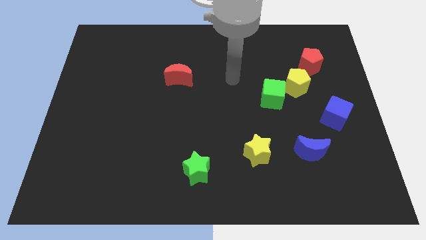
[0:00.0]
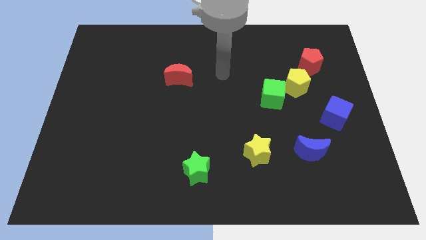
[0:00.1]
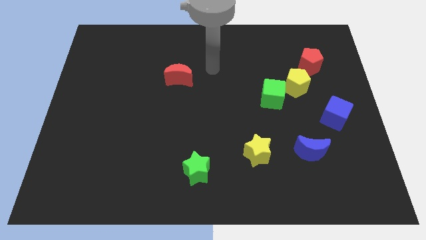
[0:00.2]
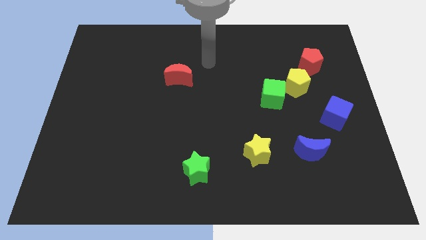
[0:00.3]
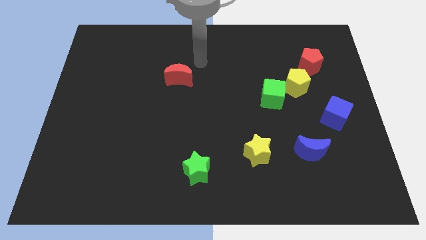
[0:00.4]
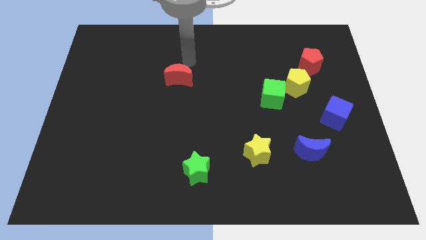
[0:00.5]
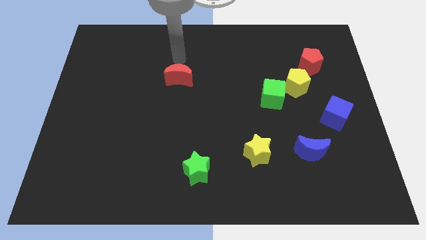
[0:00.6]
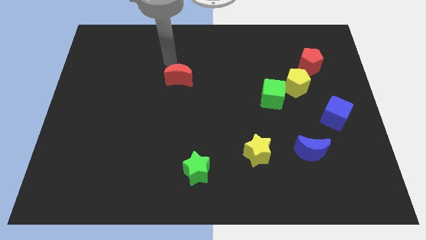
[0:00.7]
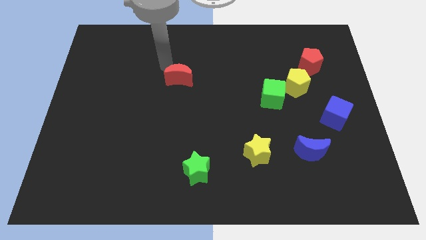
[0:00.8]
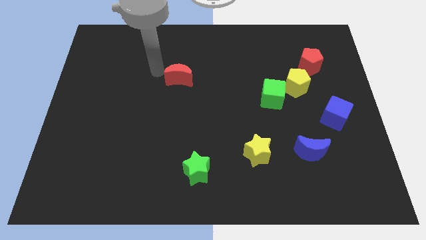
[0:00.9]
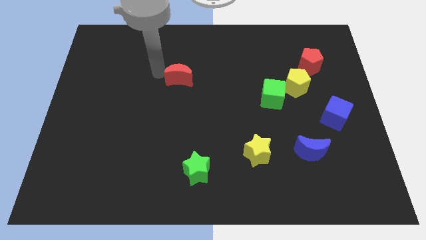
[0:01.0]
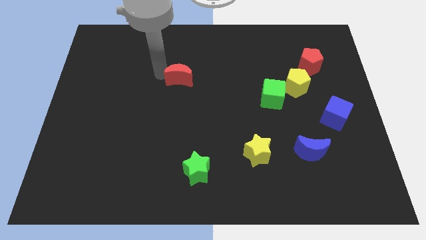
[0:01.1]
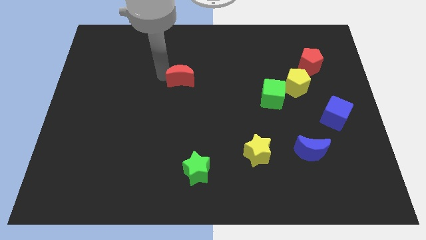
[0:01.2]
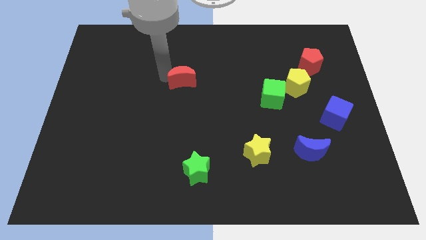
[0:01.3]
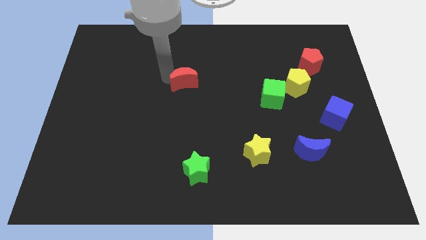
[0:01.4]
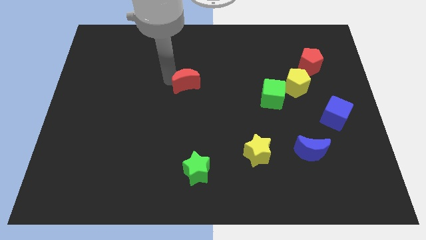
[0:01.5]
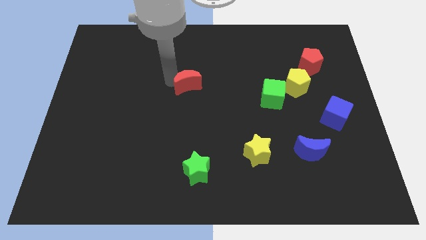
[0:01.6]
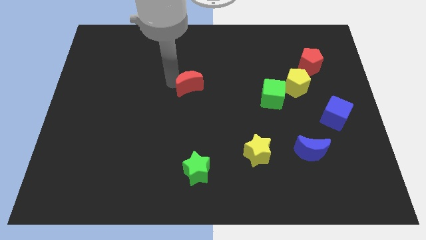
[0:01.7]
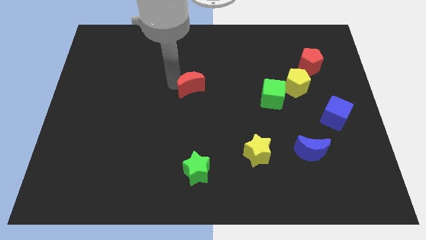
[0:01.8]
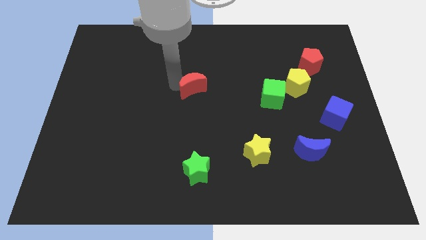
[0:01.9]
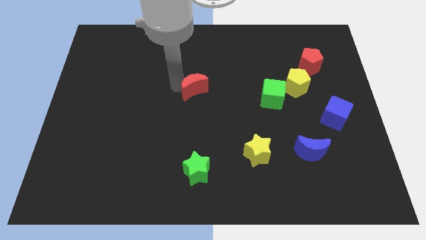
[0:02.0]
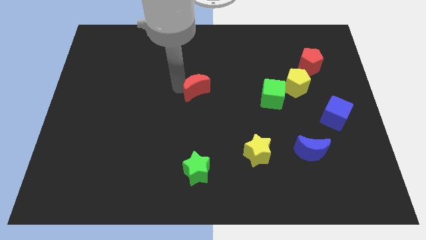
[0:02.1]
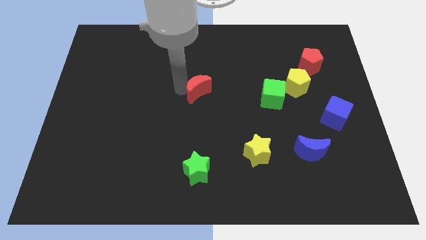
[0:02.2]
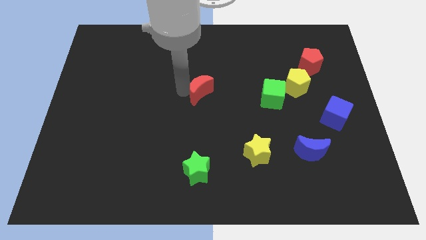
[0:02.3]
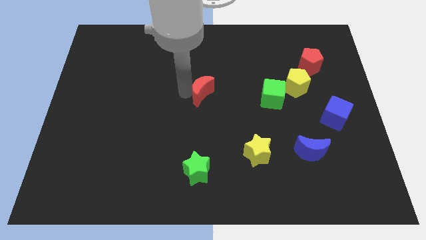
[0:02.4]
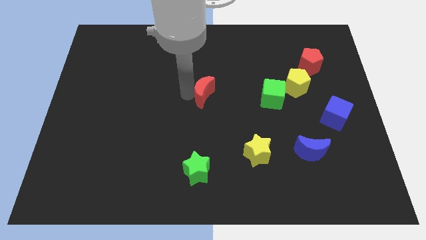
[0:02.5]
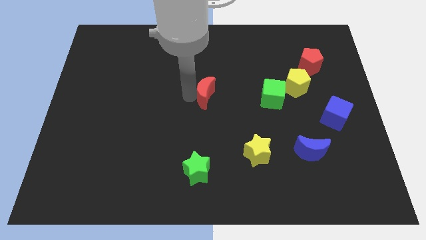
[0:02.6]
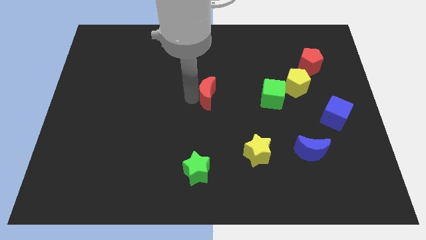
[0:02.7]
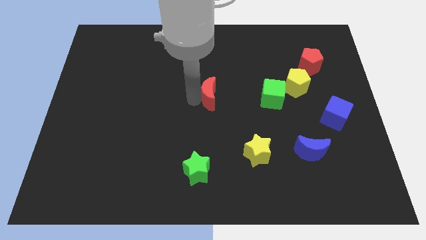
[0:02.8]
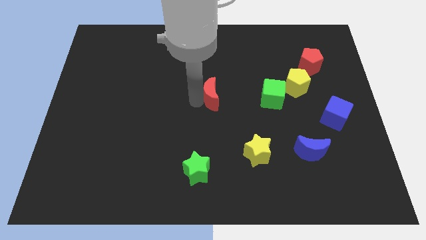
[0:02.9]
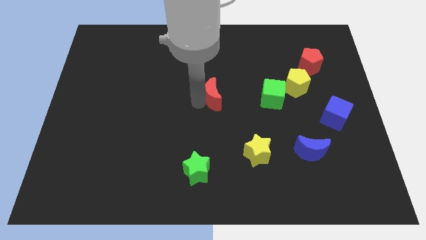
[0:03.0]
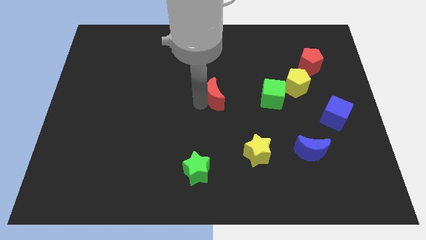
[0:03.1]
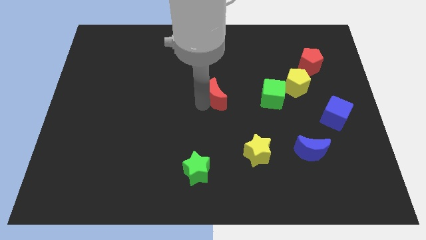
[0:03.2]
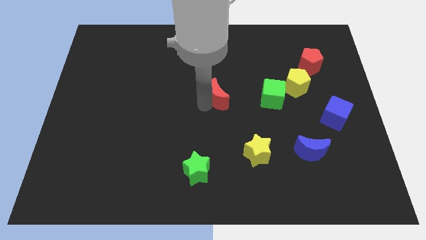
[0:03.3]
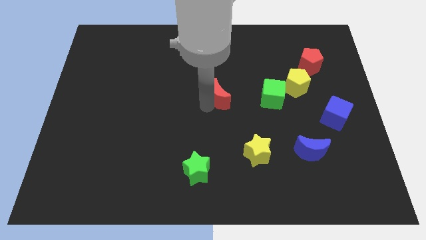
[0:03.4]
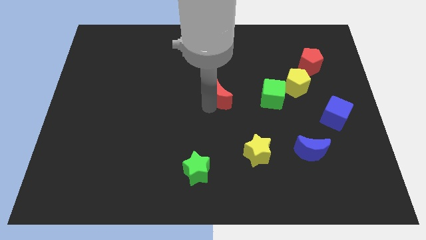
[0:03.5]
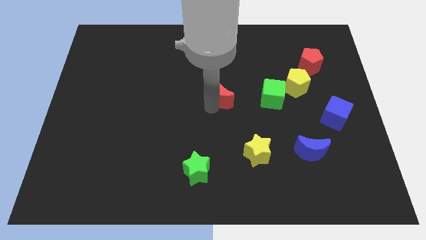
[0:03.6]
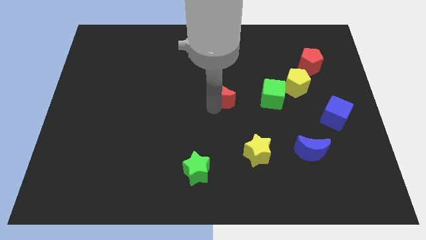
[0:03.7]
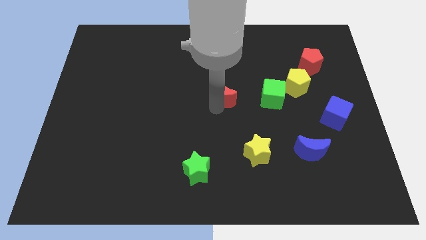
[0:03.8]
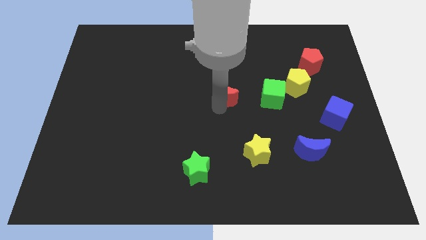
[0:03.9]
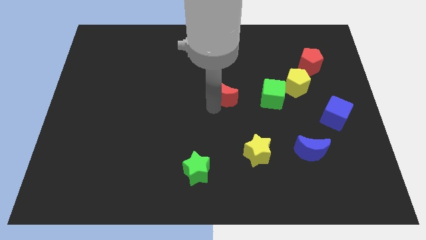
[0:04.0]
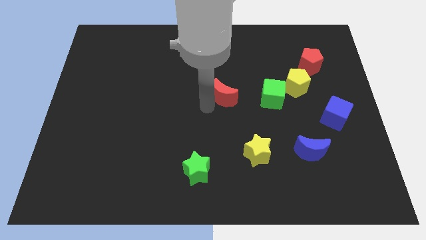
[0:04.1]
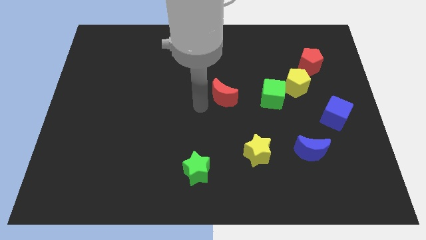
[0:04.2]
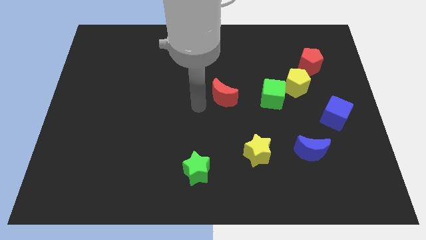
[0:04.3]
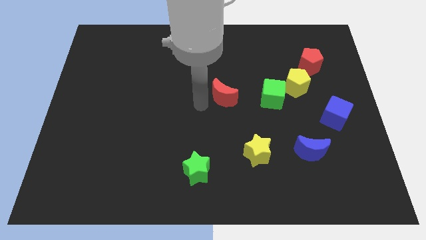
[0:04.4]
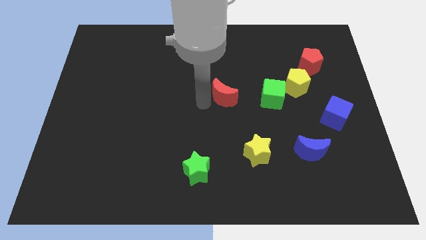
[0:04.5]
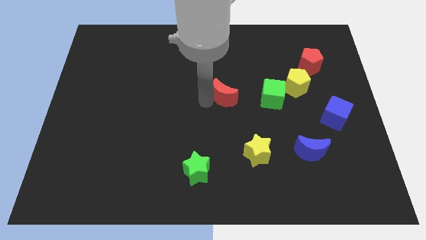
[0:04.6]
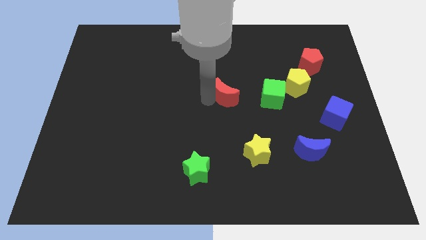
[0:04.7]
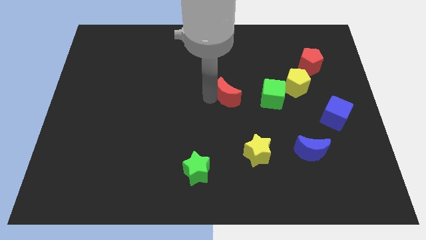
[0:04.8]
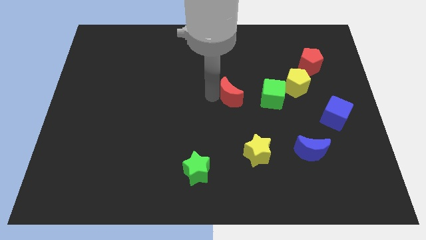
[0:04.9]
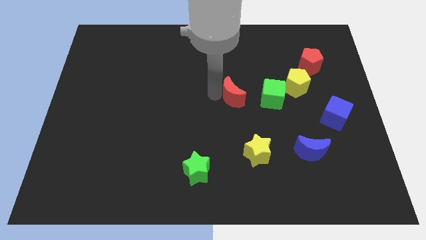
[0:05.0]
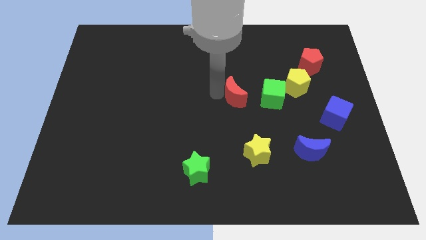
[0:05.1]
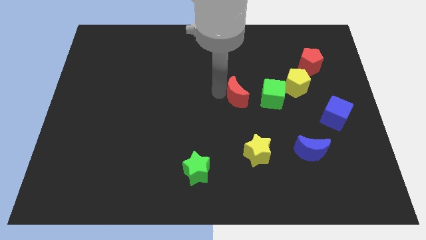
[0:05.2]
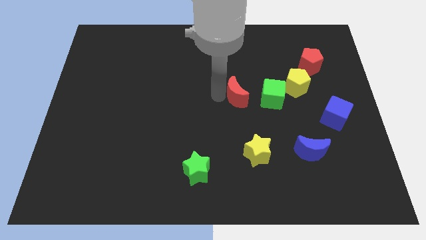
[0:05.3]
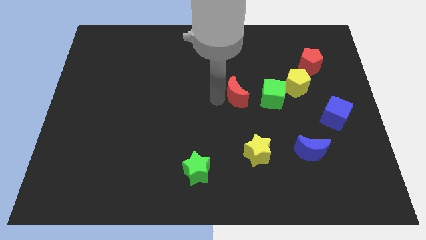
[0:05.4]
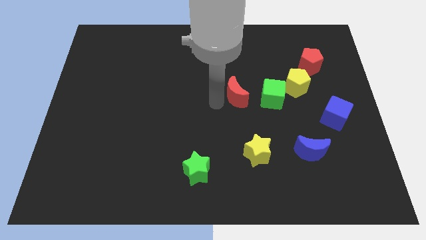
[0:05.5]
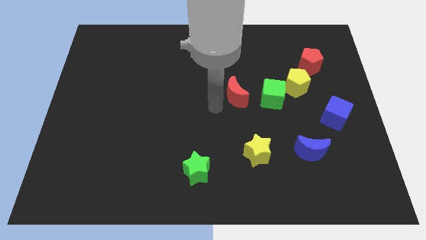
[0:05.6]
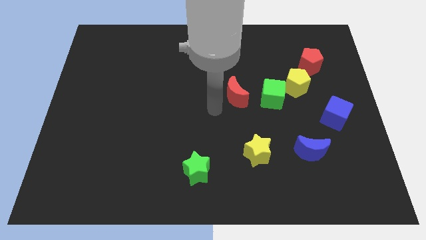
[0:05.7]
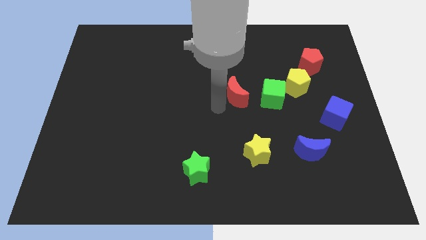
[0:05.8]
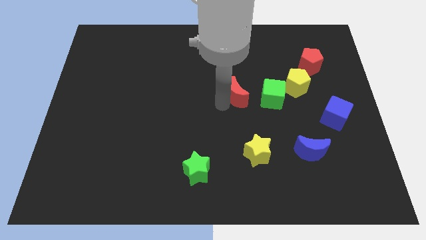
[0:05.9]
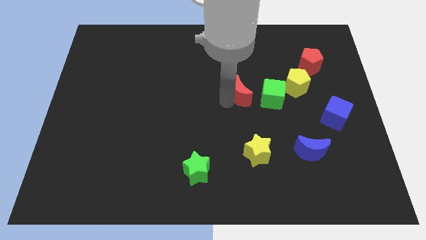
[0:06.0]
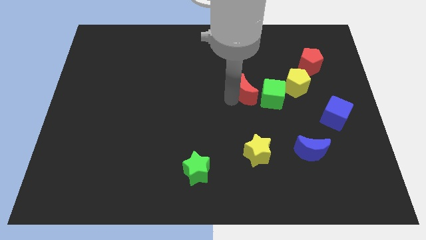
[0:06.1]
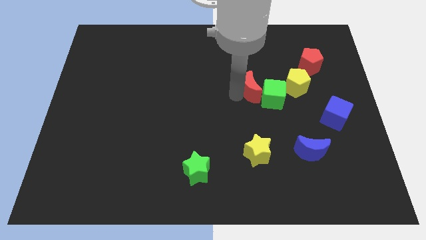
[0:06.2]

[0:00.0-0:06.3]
push the red moon next to the green cube

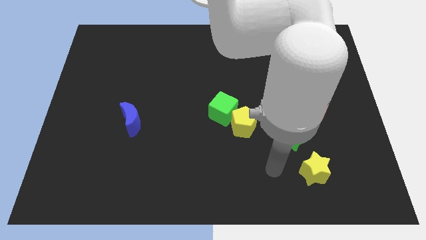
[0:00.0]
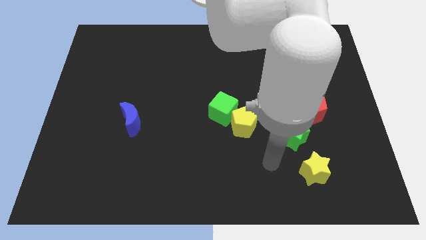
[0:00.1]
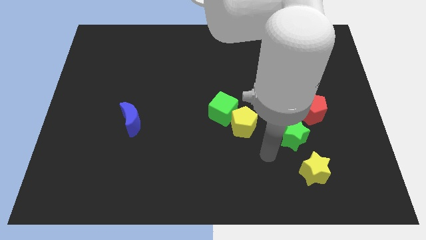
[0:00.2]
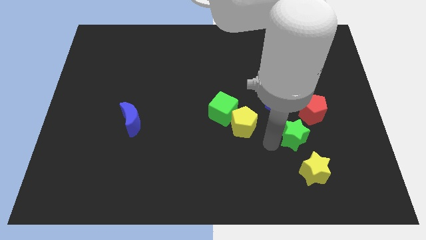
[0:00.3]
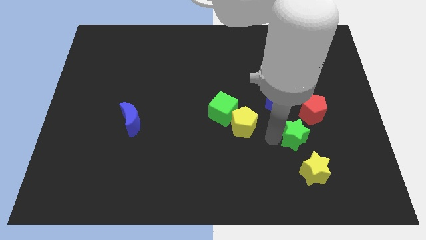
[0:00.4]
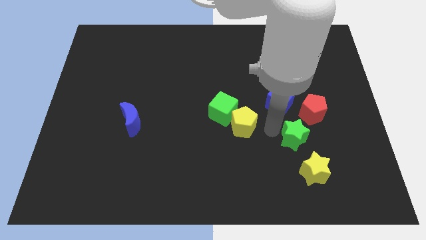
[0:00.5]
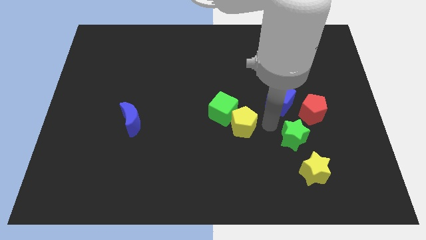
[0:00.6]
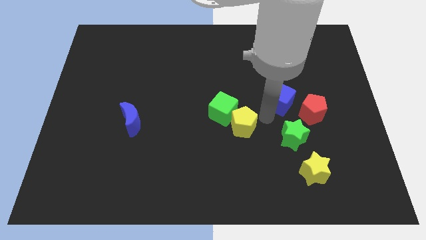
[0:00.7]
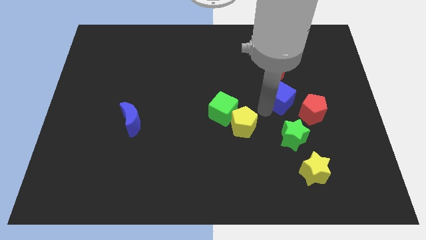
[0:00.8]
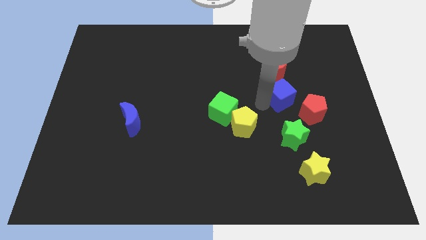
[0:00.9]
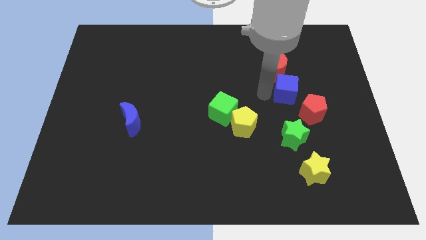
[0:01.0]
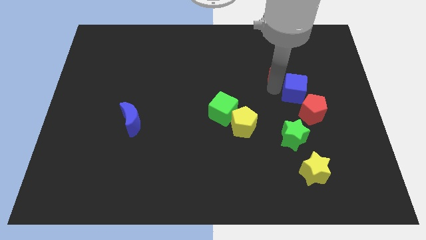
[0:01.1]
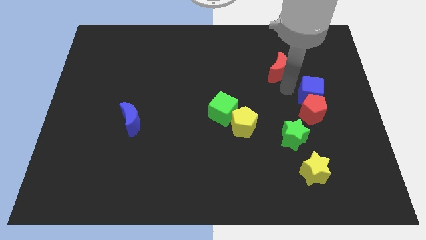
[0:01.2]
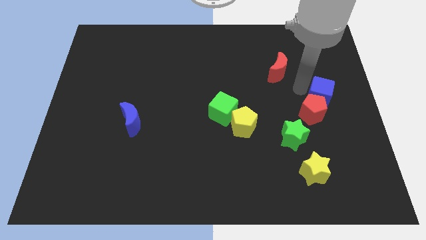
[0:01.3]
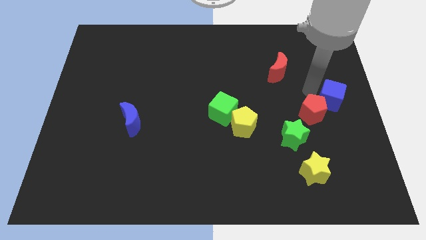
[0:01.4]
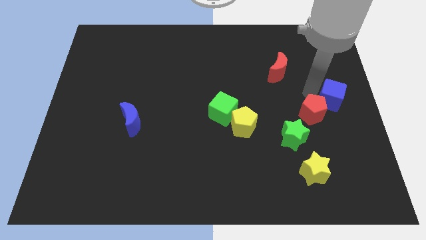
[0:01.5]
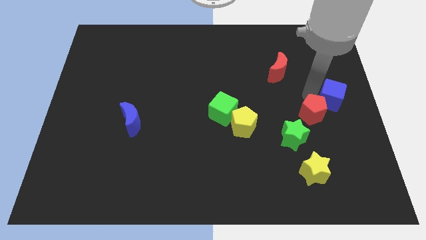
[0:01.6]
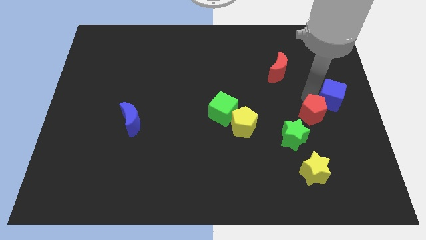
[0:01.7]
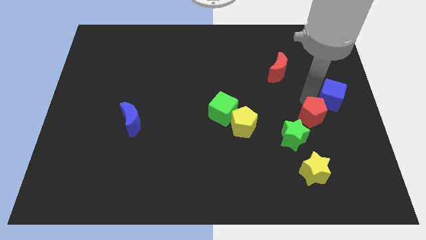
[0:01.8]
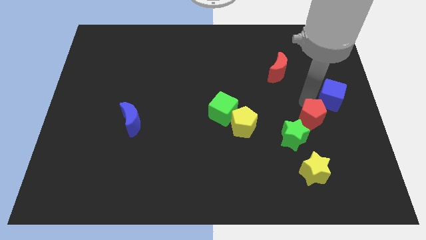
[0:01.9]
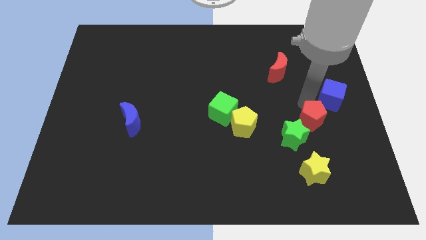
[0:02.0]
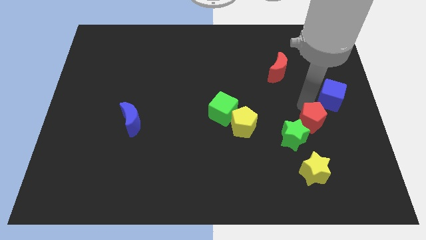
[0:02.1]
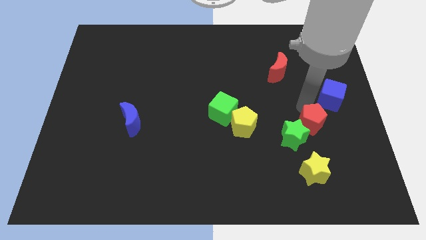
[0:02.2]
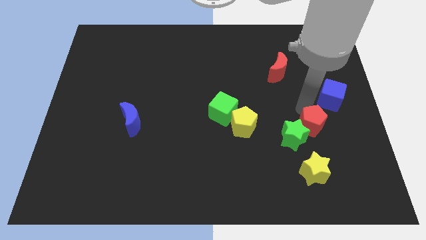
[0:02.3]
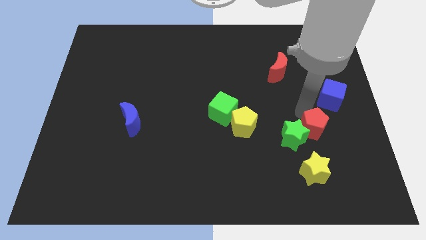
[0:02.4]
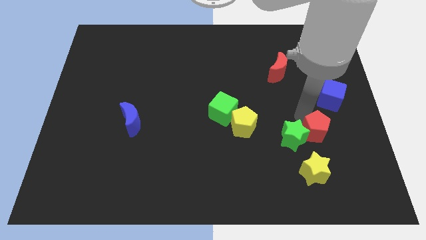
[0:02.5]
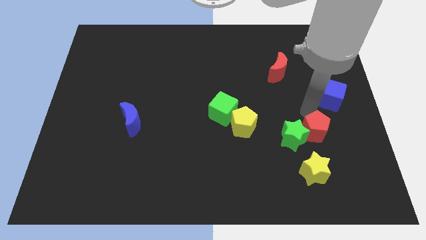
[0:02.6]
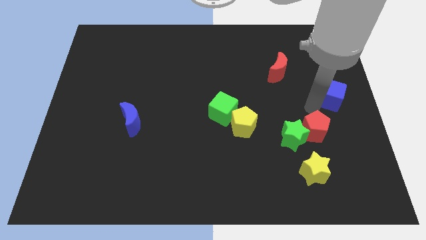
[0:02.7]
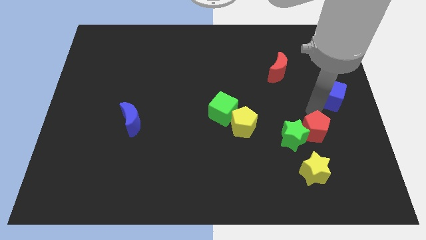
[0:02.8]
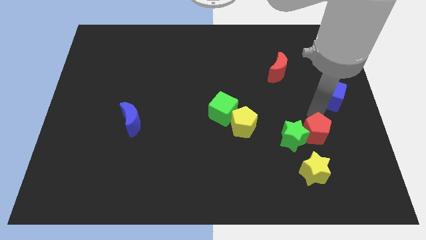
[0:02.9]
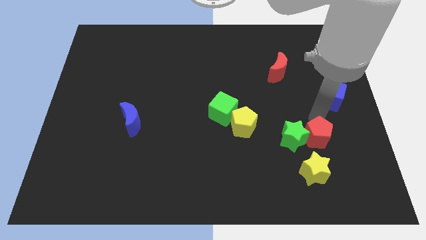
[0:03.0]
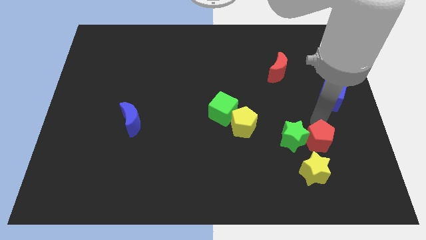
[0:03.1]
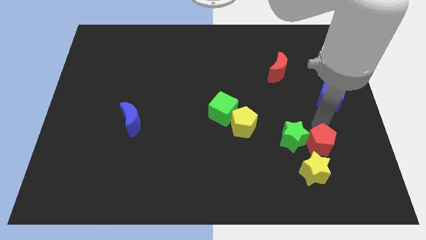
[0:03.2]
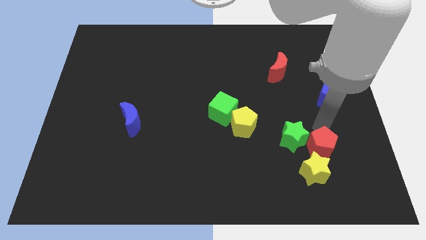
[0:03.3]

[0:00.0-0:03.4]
slide the red pentagon close to the yellow star
